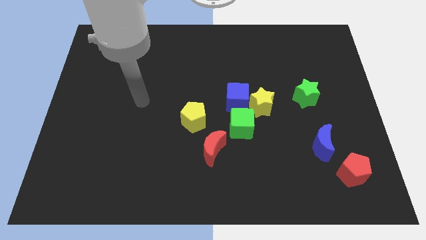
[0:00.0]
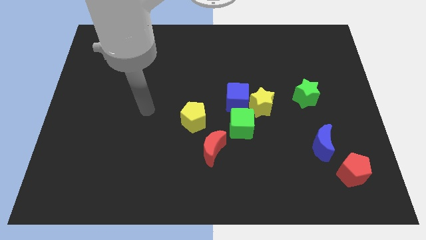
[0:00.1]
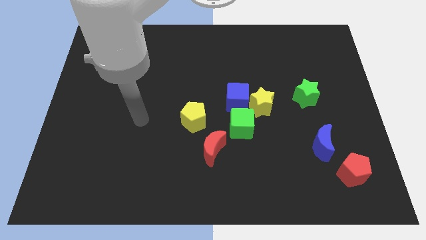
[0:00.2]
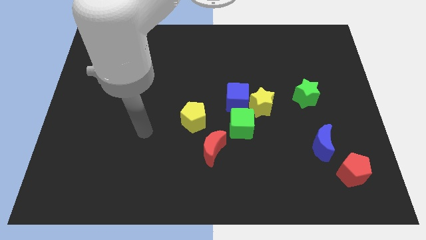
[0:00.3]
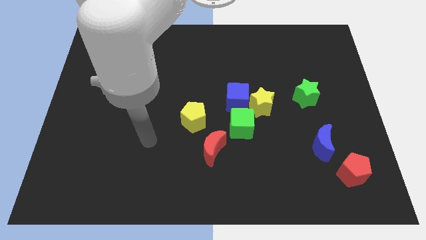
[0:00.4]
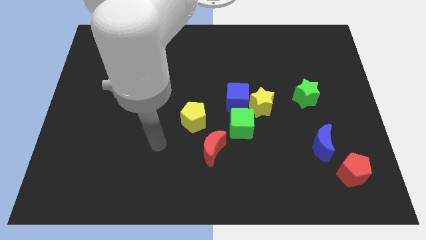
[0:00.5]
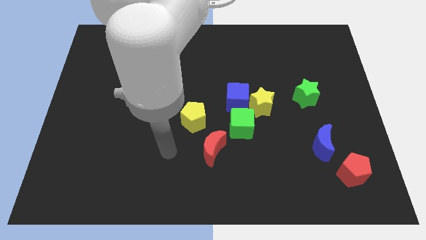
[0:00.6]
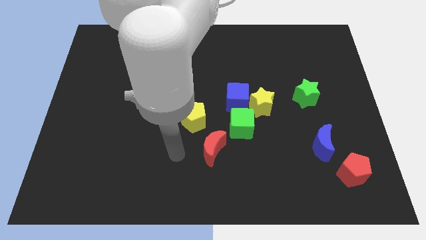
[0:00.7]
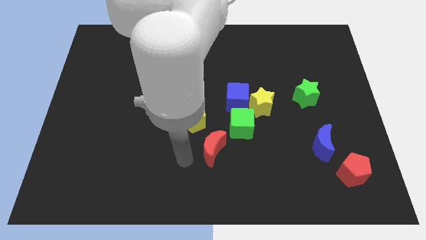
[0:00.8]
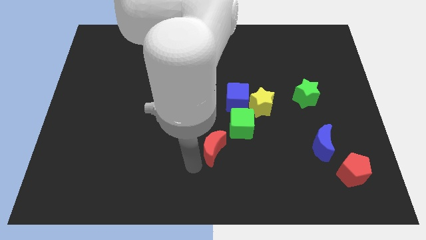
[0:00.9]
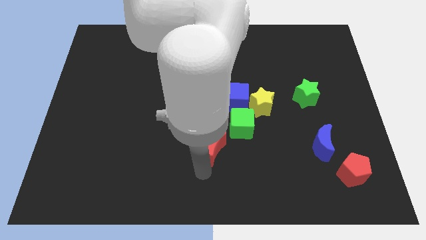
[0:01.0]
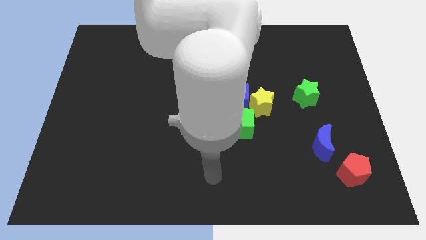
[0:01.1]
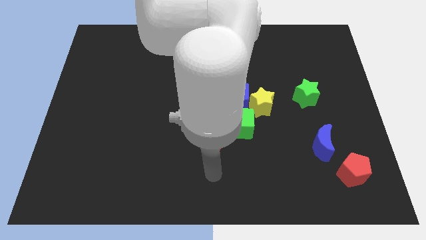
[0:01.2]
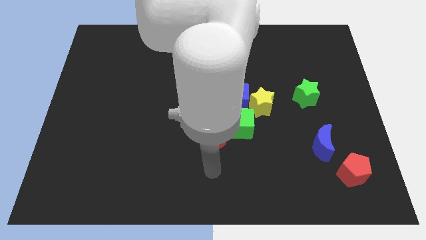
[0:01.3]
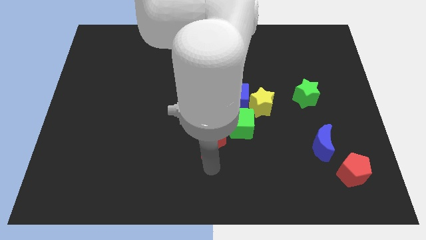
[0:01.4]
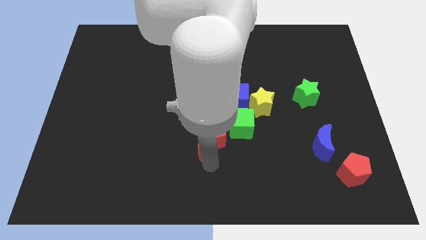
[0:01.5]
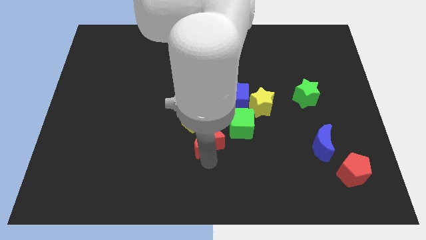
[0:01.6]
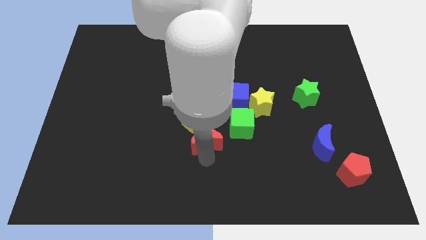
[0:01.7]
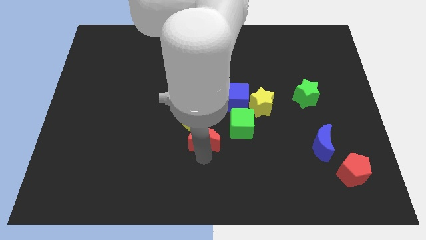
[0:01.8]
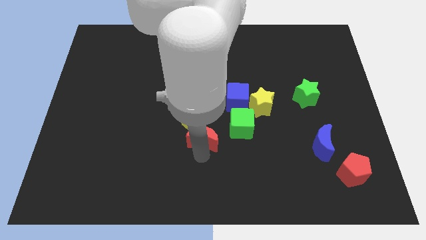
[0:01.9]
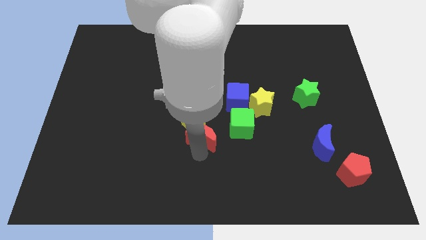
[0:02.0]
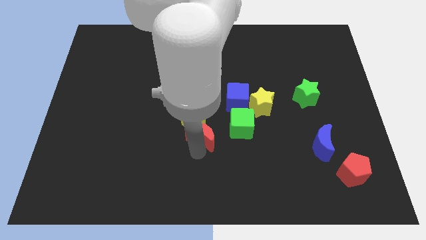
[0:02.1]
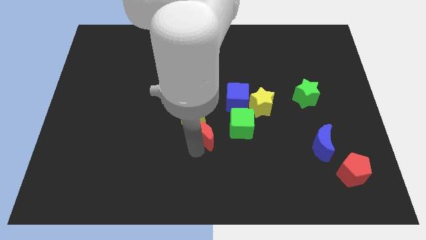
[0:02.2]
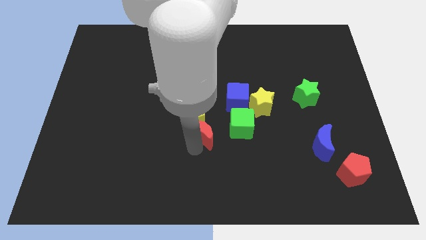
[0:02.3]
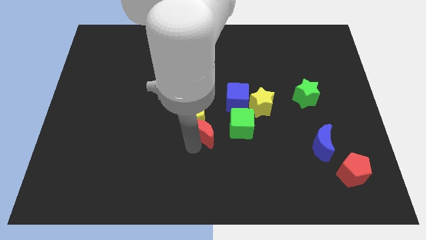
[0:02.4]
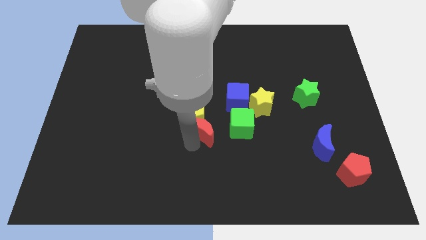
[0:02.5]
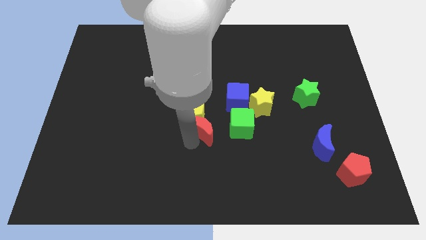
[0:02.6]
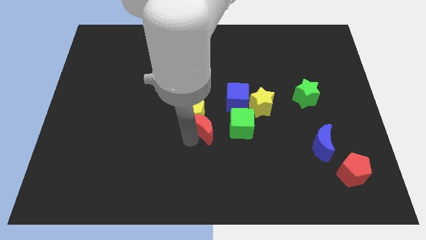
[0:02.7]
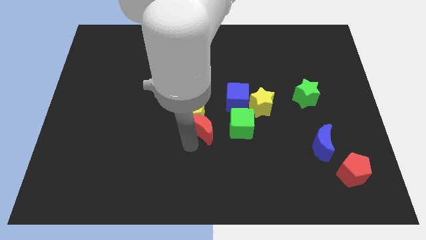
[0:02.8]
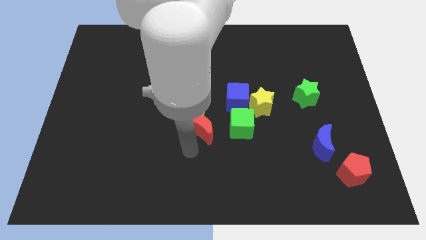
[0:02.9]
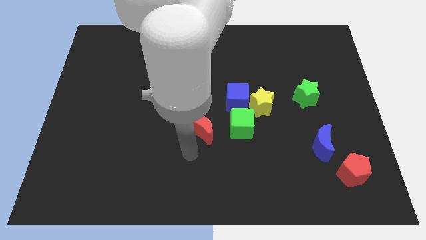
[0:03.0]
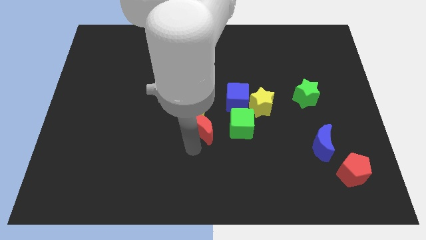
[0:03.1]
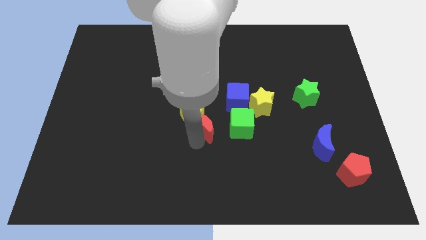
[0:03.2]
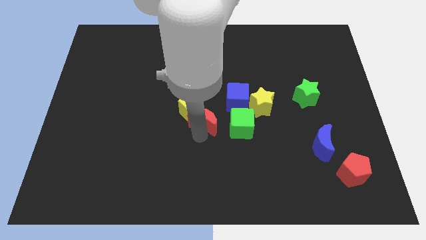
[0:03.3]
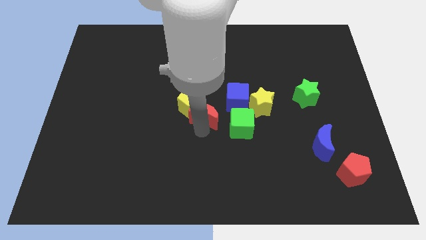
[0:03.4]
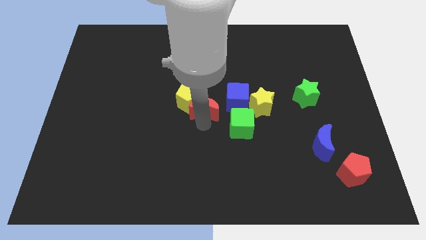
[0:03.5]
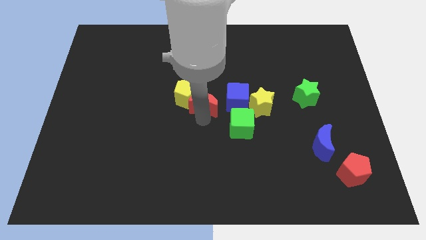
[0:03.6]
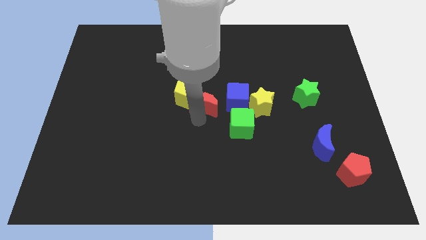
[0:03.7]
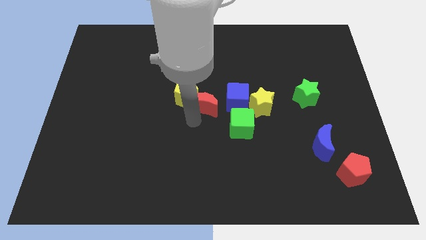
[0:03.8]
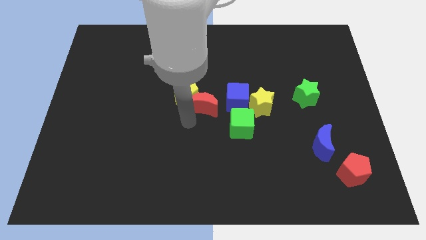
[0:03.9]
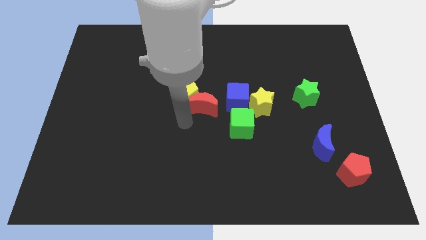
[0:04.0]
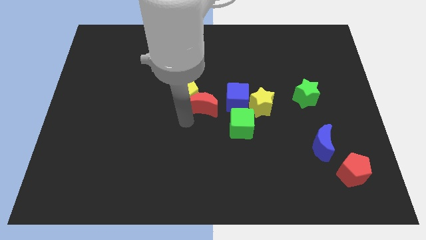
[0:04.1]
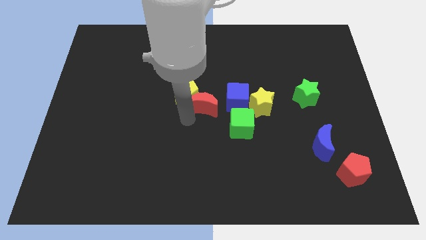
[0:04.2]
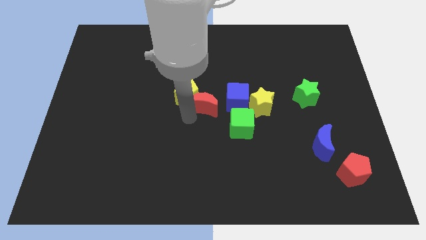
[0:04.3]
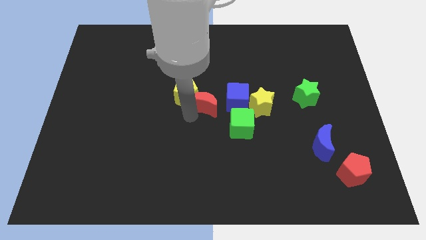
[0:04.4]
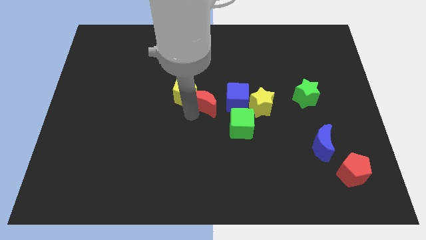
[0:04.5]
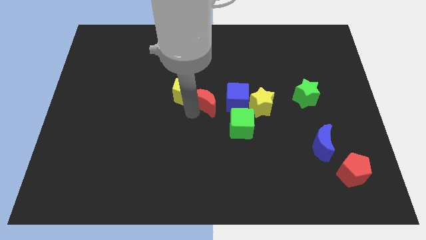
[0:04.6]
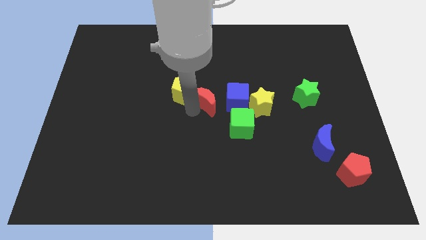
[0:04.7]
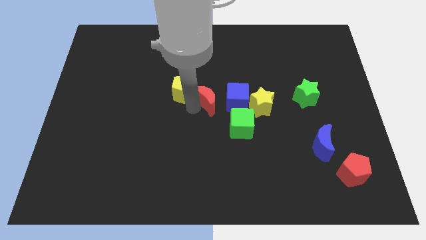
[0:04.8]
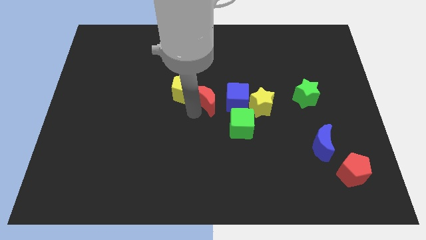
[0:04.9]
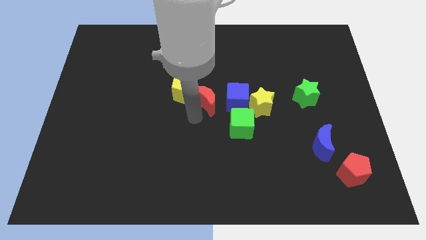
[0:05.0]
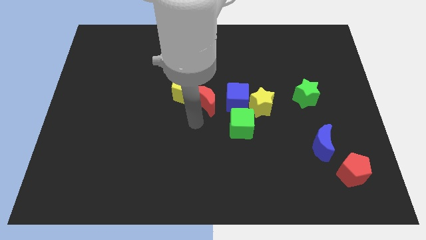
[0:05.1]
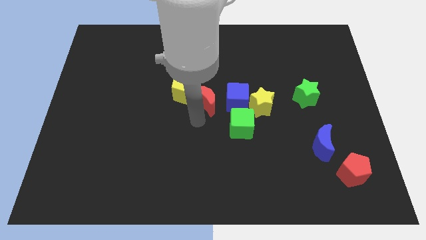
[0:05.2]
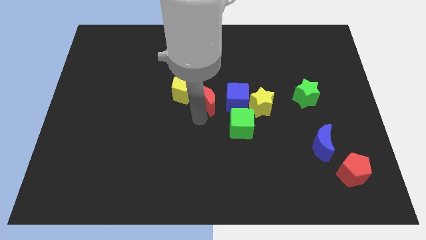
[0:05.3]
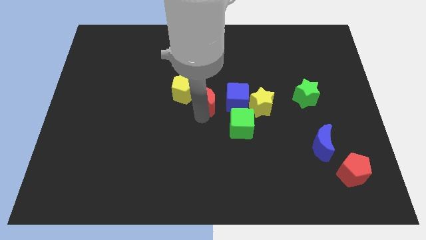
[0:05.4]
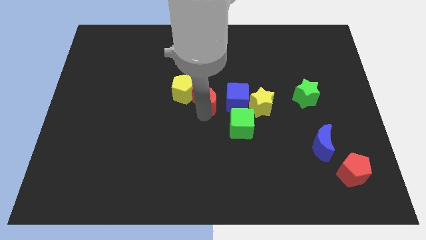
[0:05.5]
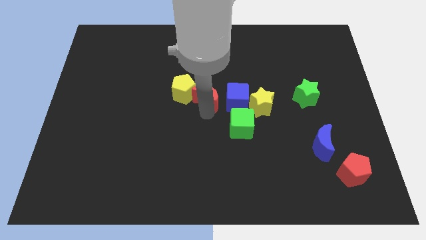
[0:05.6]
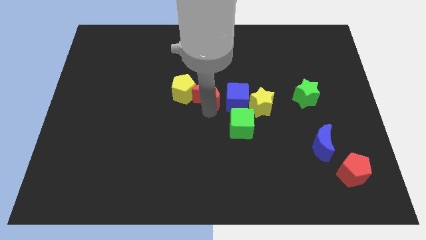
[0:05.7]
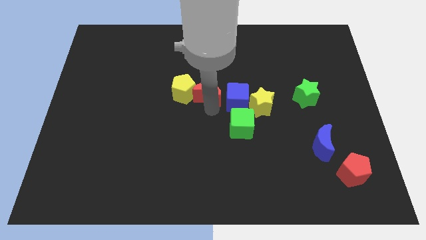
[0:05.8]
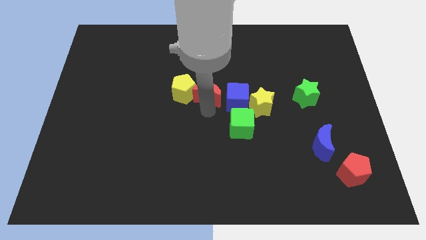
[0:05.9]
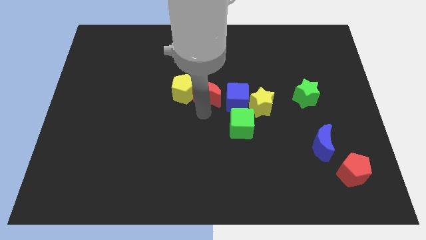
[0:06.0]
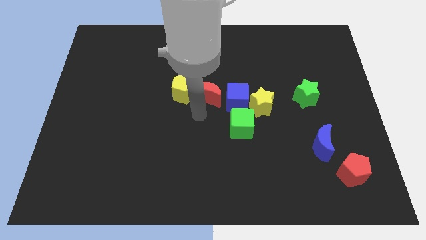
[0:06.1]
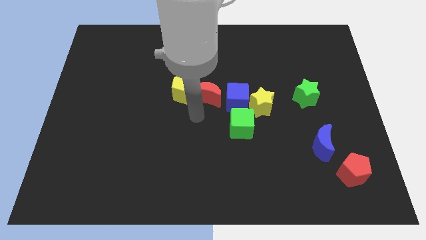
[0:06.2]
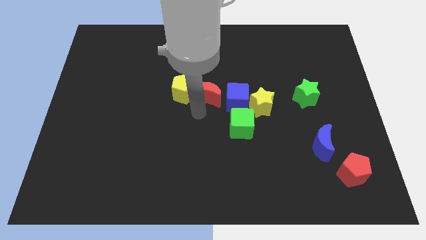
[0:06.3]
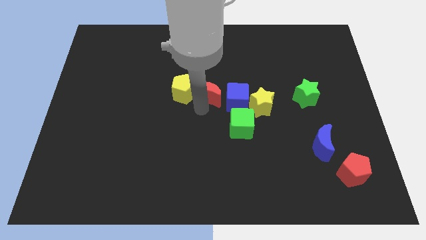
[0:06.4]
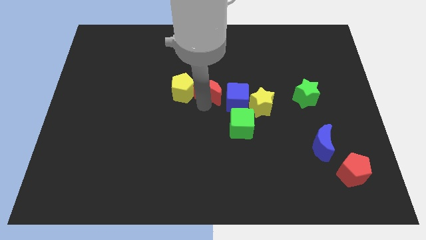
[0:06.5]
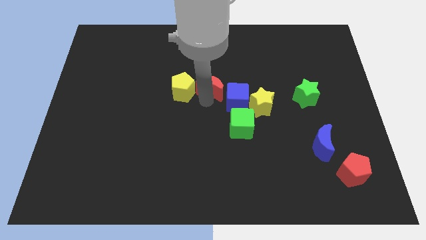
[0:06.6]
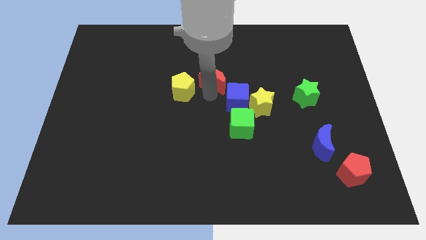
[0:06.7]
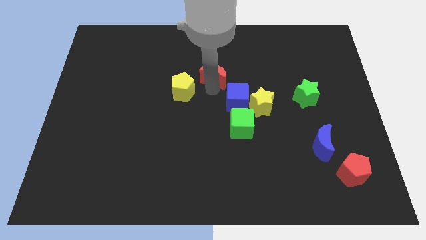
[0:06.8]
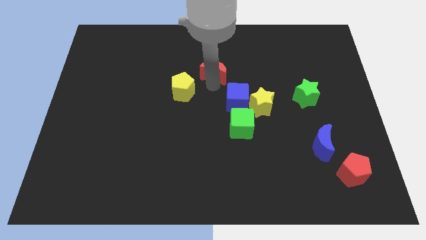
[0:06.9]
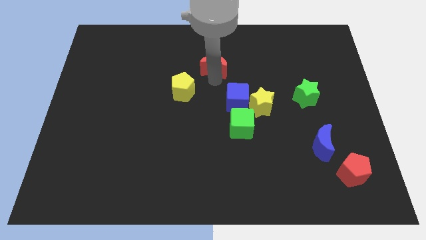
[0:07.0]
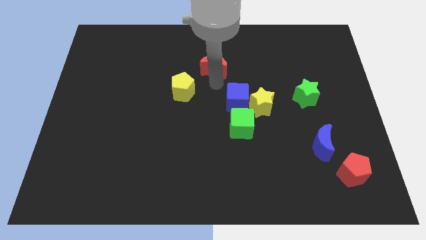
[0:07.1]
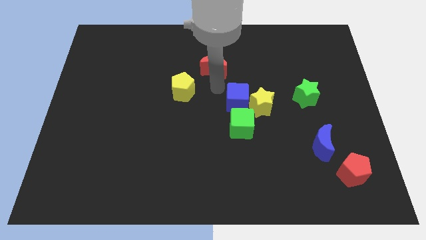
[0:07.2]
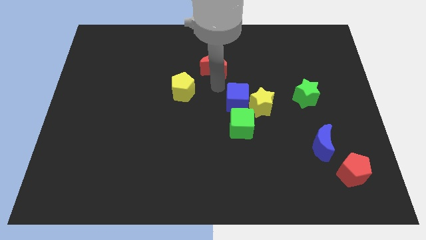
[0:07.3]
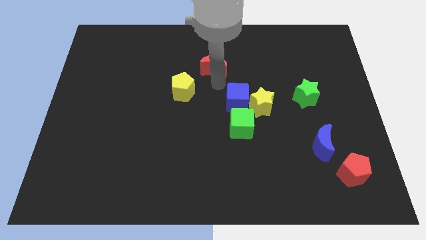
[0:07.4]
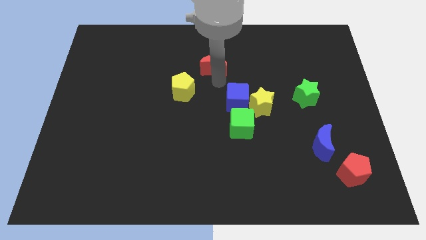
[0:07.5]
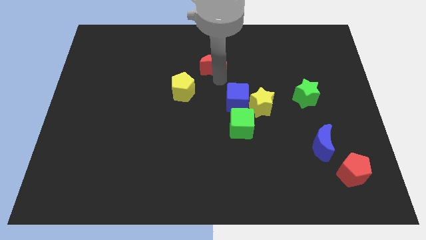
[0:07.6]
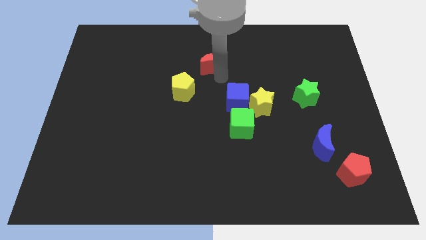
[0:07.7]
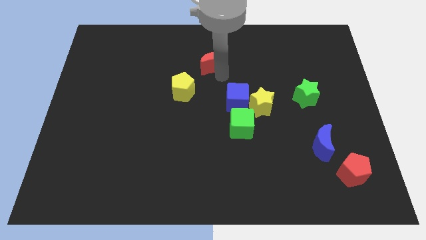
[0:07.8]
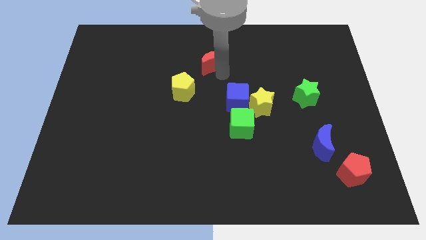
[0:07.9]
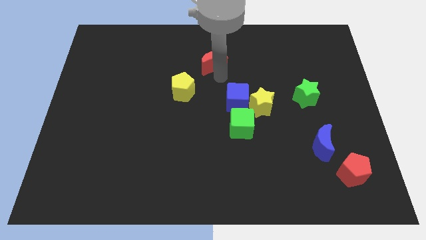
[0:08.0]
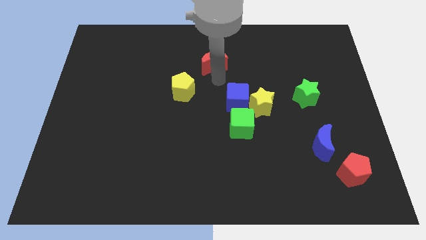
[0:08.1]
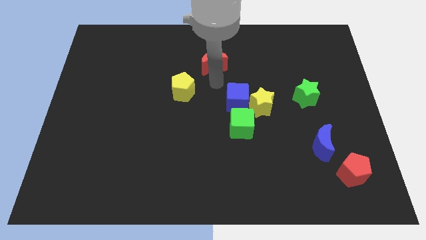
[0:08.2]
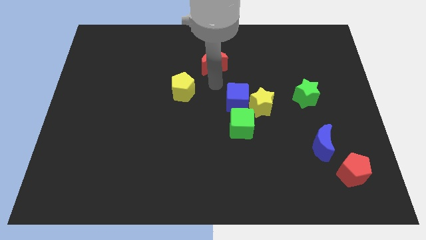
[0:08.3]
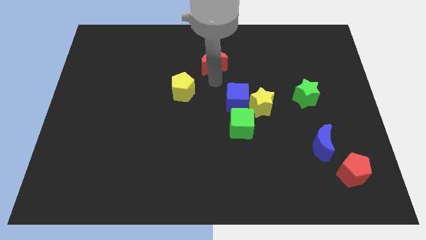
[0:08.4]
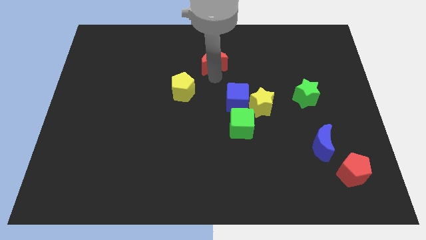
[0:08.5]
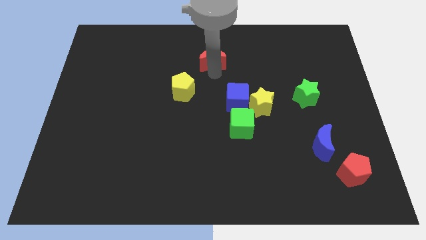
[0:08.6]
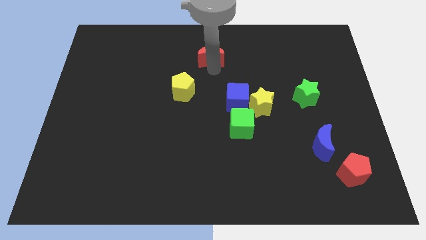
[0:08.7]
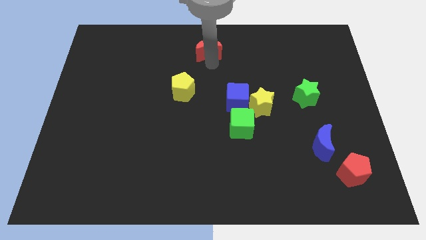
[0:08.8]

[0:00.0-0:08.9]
slide the red moon to the top
